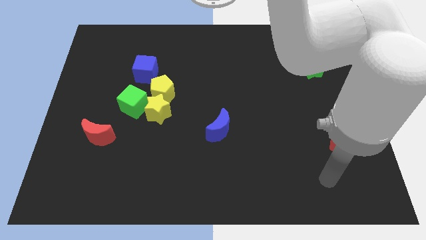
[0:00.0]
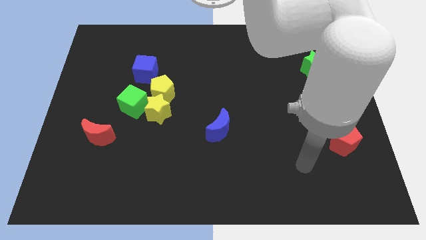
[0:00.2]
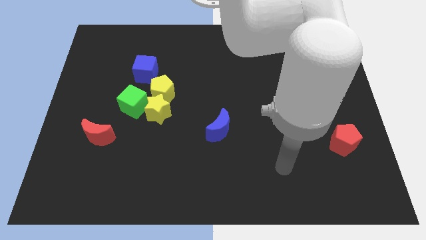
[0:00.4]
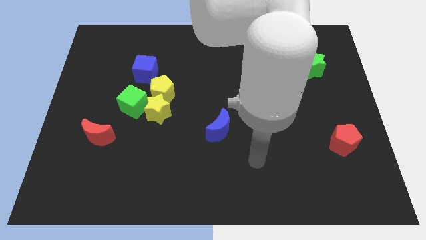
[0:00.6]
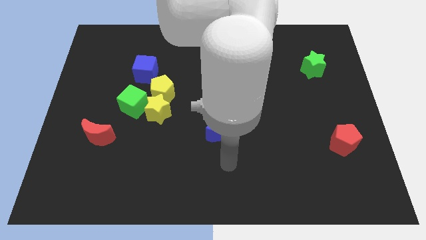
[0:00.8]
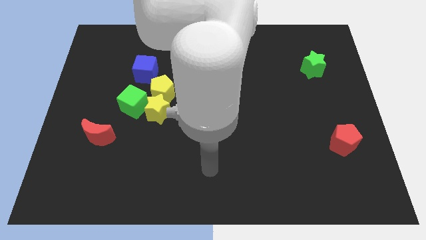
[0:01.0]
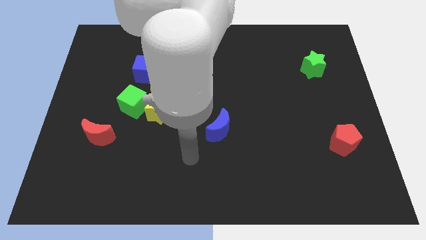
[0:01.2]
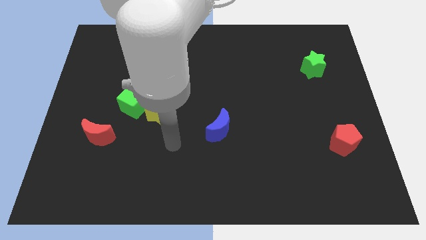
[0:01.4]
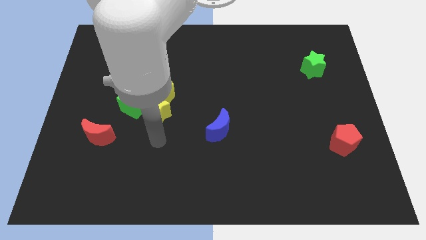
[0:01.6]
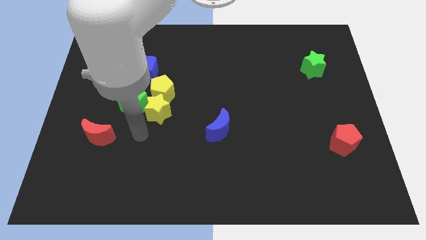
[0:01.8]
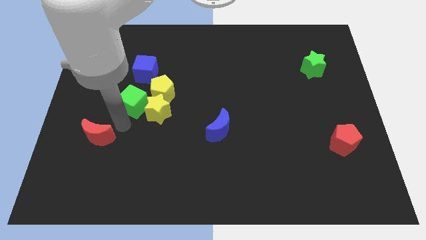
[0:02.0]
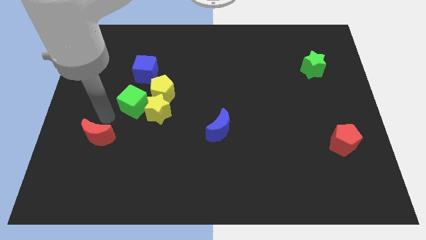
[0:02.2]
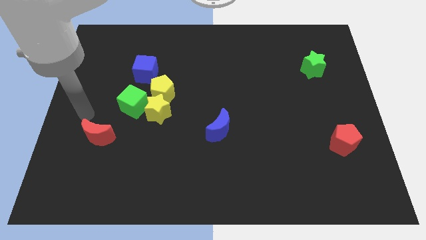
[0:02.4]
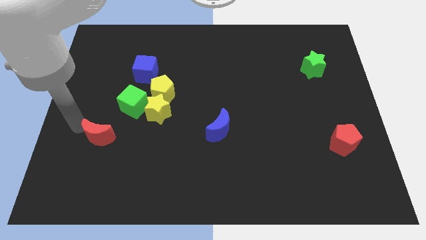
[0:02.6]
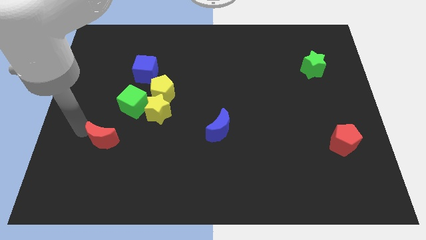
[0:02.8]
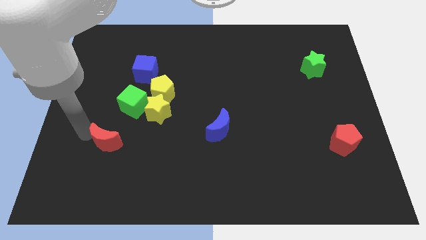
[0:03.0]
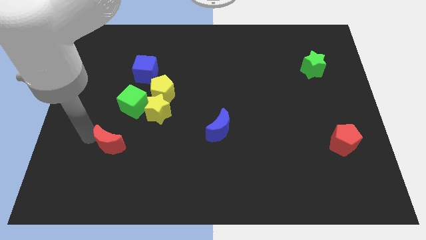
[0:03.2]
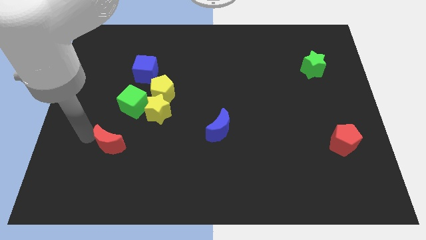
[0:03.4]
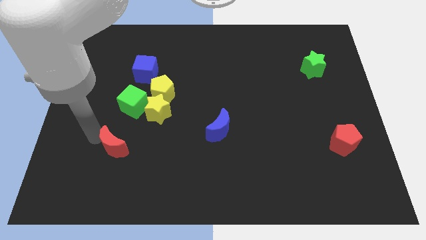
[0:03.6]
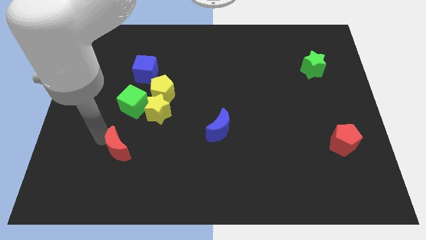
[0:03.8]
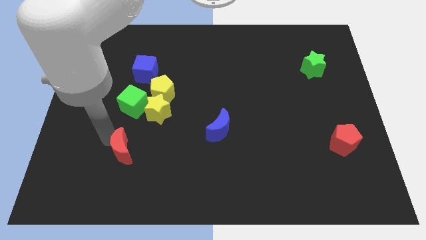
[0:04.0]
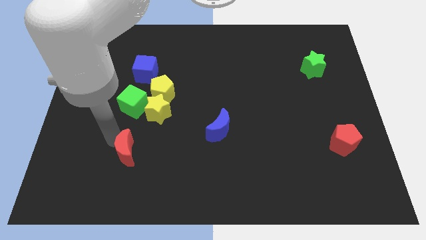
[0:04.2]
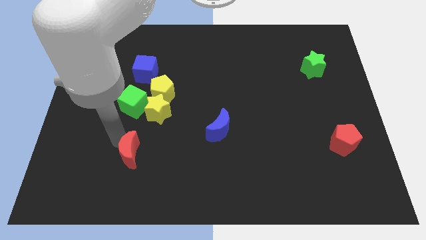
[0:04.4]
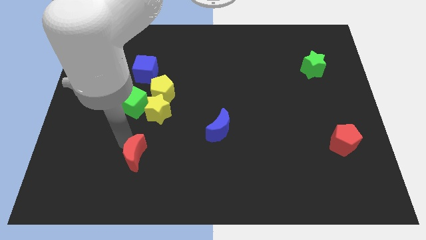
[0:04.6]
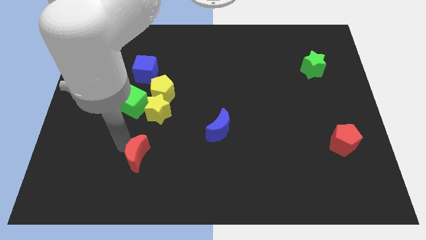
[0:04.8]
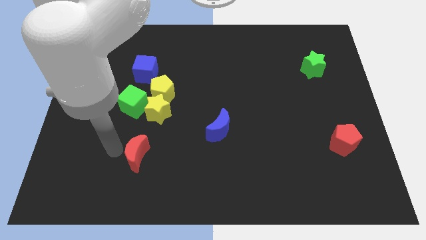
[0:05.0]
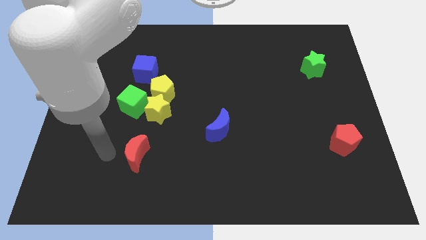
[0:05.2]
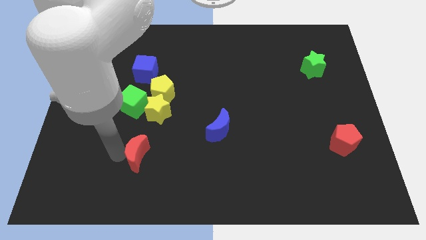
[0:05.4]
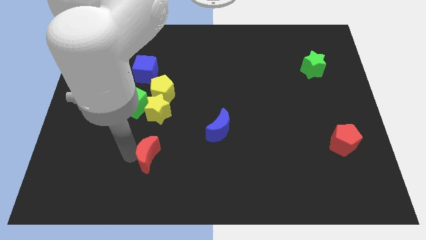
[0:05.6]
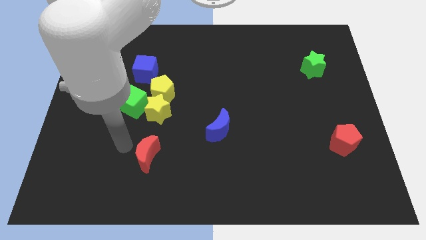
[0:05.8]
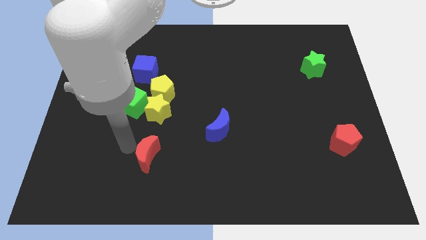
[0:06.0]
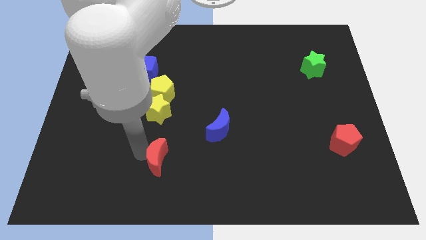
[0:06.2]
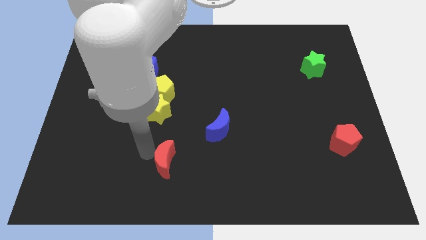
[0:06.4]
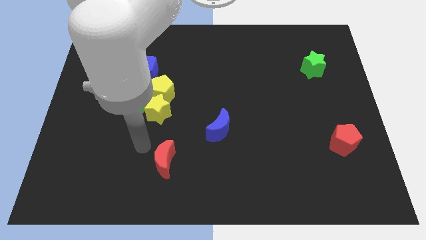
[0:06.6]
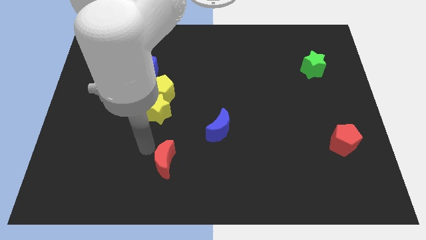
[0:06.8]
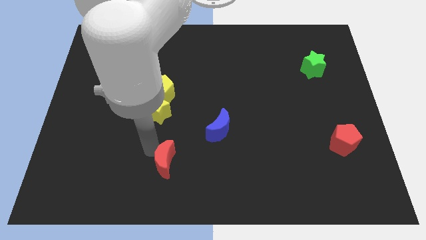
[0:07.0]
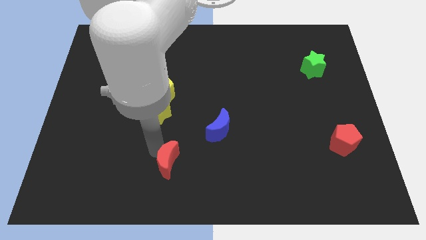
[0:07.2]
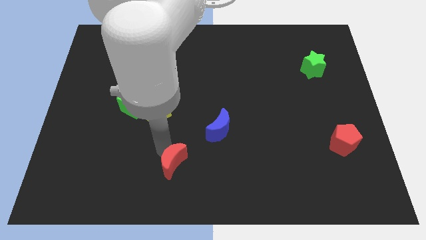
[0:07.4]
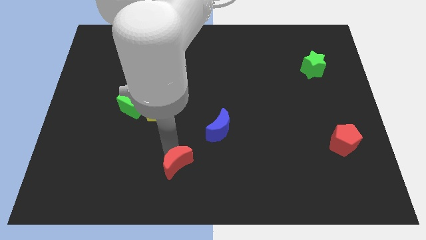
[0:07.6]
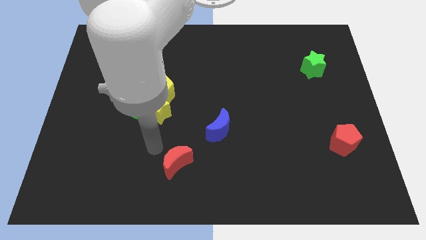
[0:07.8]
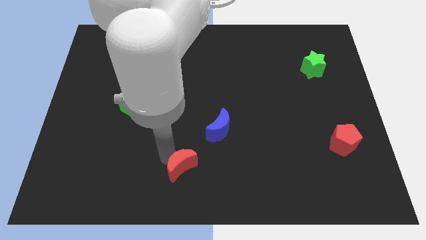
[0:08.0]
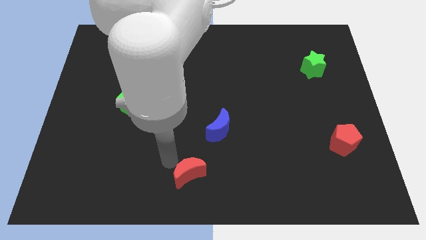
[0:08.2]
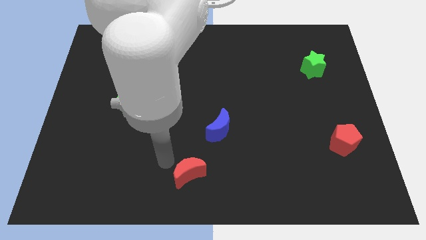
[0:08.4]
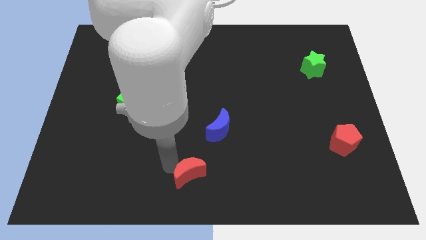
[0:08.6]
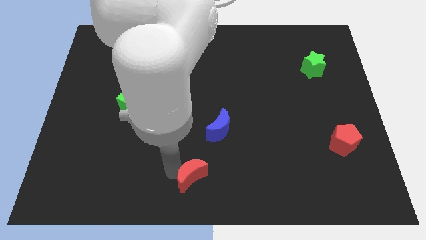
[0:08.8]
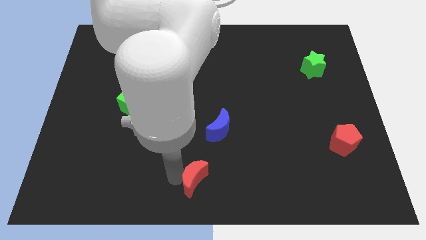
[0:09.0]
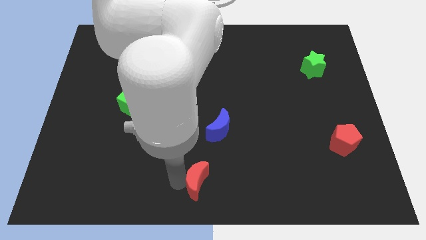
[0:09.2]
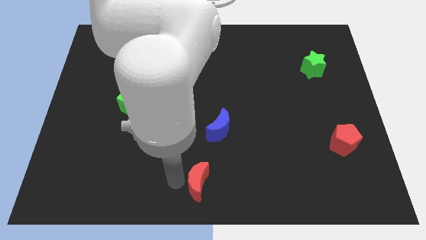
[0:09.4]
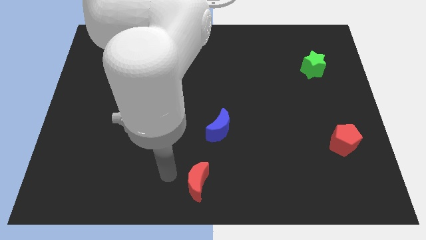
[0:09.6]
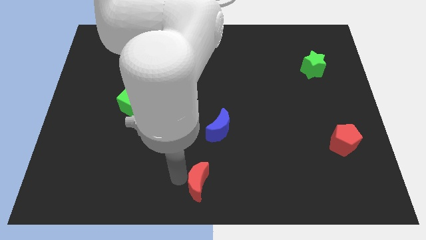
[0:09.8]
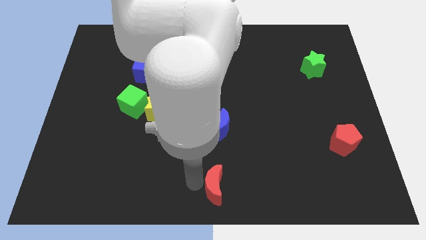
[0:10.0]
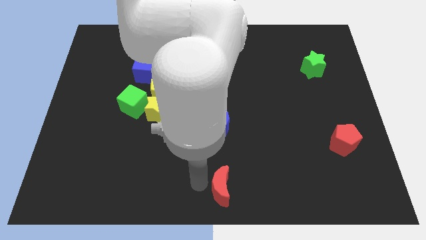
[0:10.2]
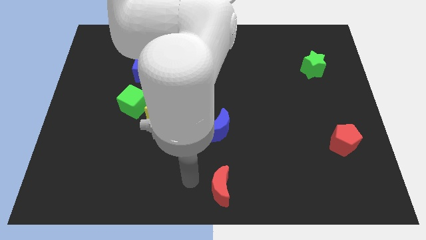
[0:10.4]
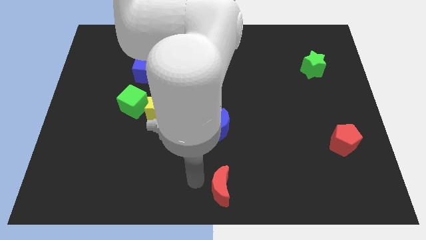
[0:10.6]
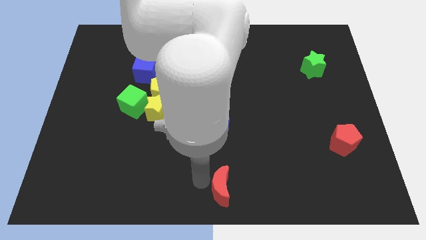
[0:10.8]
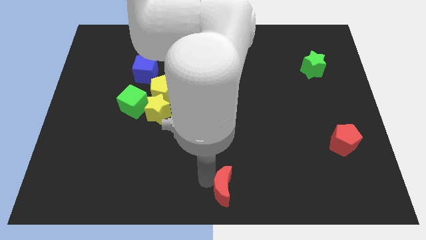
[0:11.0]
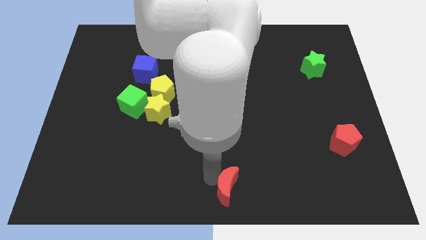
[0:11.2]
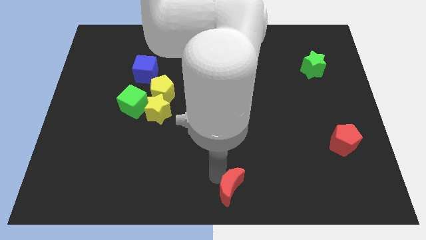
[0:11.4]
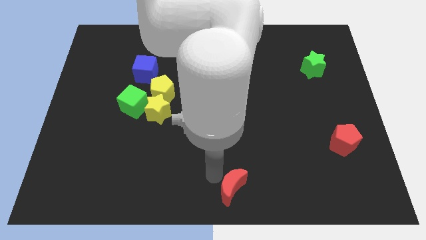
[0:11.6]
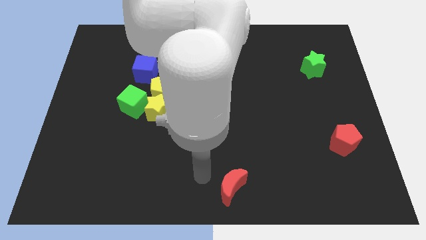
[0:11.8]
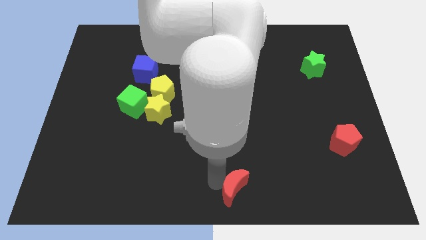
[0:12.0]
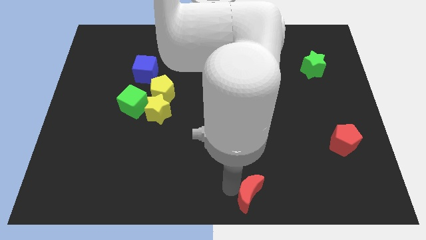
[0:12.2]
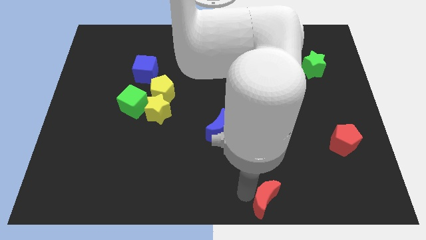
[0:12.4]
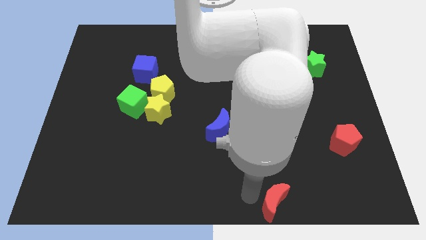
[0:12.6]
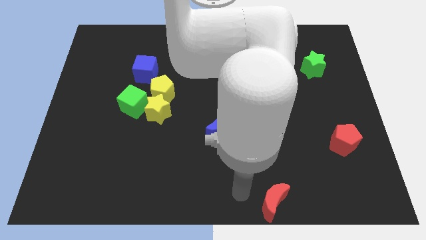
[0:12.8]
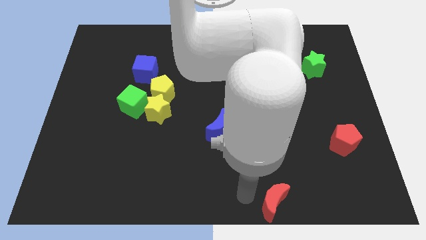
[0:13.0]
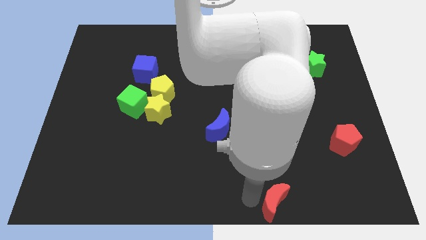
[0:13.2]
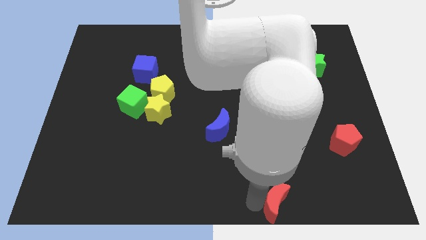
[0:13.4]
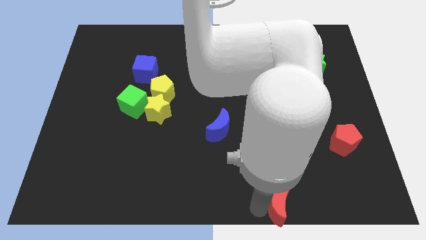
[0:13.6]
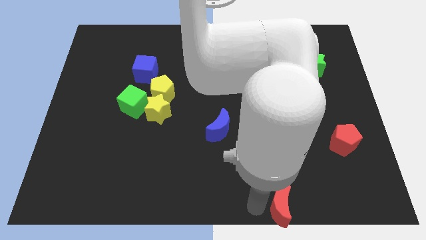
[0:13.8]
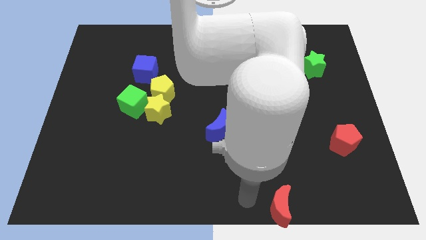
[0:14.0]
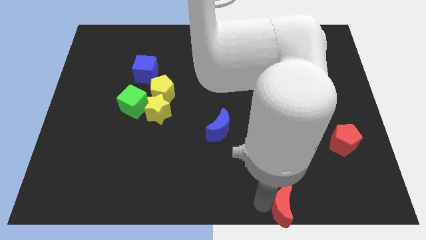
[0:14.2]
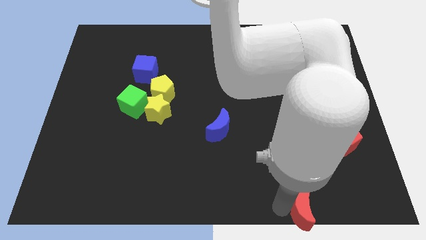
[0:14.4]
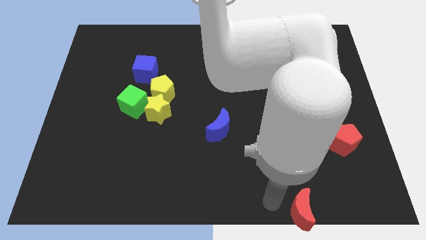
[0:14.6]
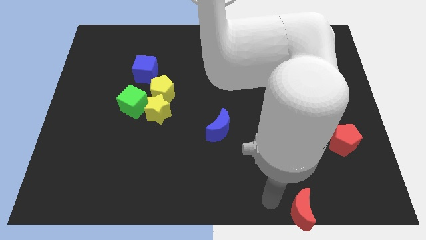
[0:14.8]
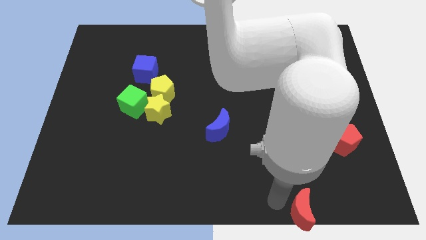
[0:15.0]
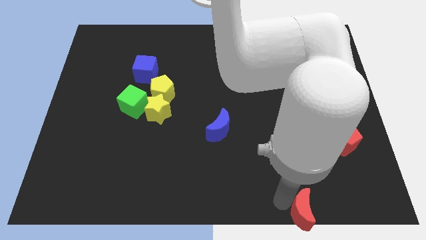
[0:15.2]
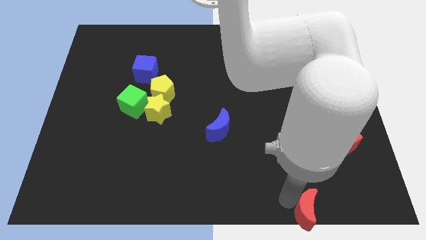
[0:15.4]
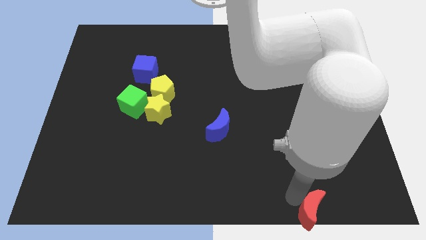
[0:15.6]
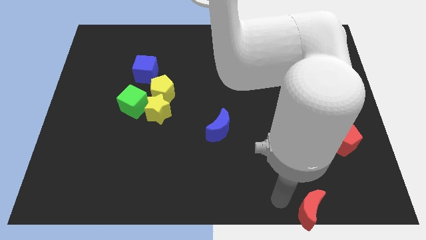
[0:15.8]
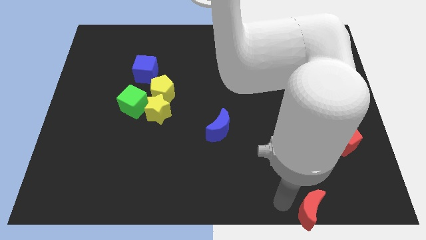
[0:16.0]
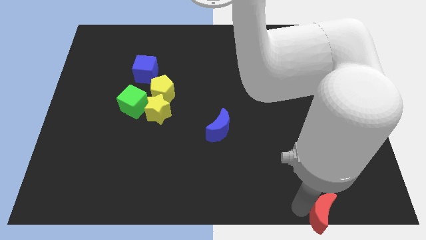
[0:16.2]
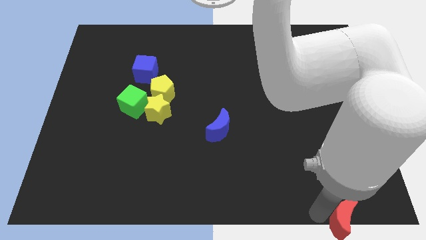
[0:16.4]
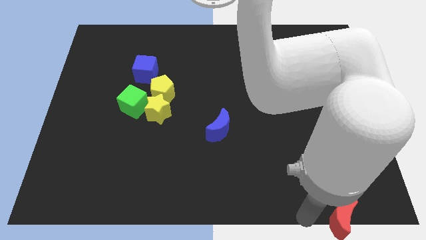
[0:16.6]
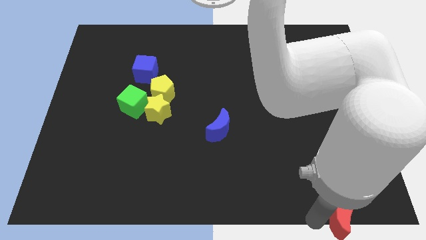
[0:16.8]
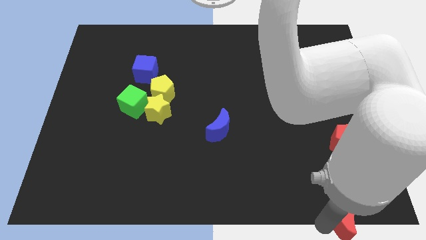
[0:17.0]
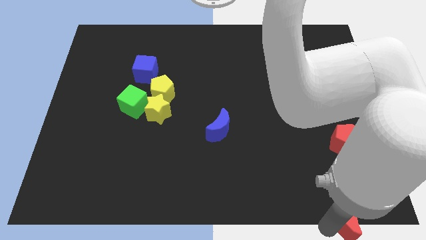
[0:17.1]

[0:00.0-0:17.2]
slide the red moon to the bottom right
